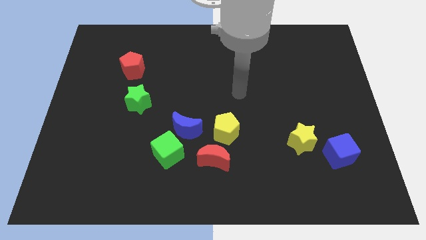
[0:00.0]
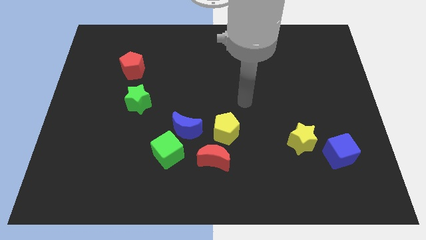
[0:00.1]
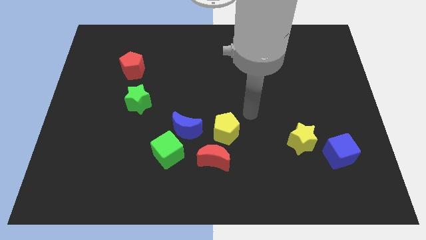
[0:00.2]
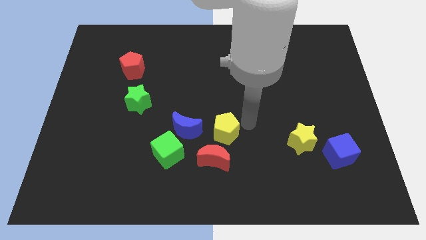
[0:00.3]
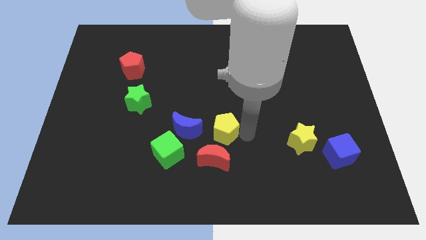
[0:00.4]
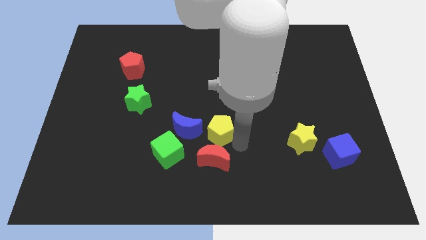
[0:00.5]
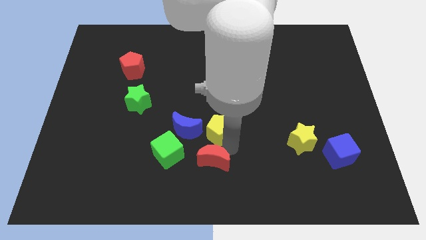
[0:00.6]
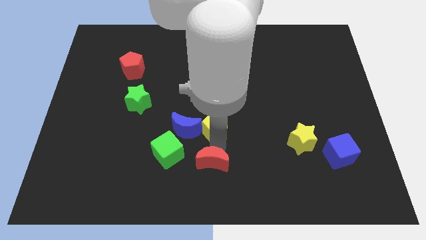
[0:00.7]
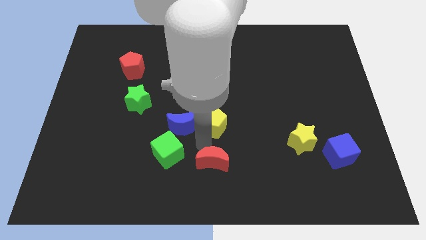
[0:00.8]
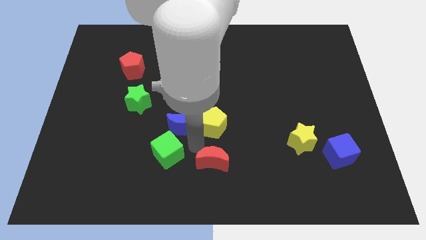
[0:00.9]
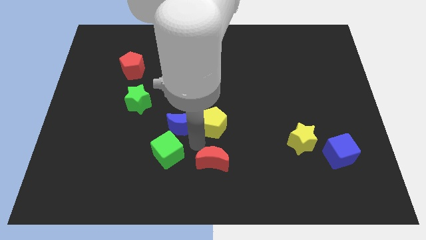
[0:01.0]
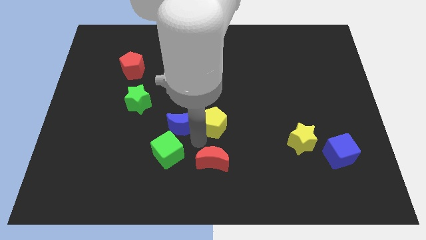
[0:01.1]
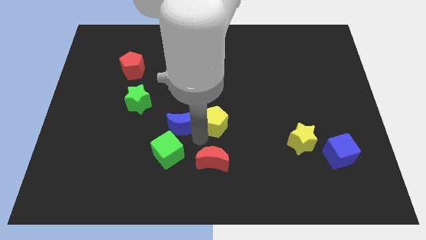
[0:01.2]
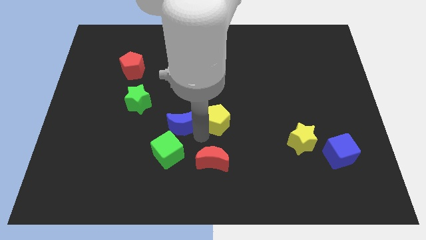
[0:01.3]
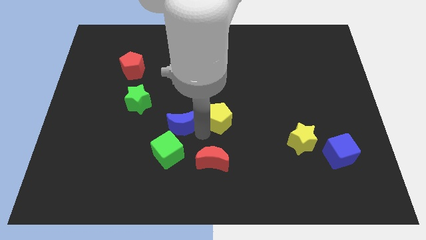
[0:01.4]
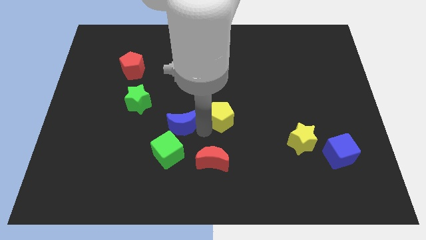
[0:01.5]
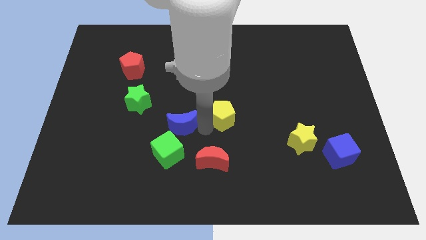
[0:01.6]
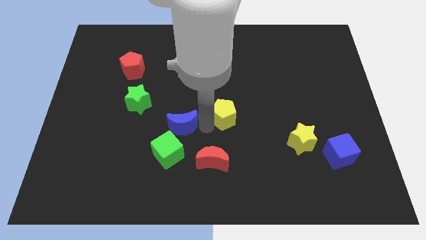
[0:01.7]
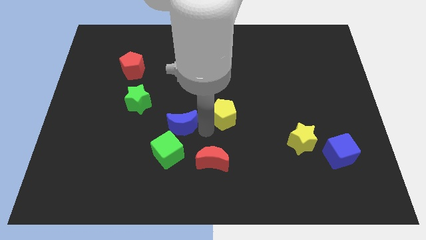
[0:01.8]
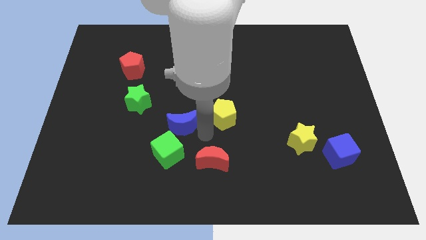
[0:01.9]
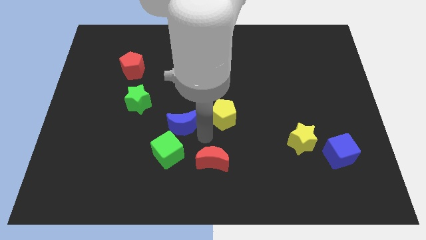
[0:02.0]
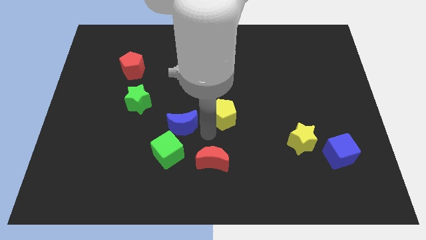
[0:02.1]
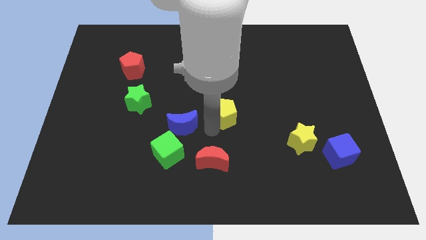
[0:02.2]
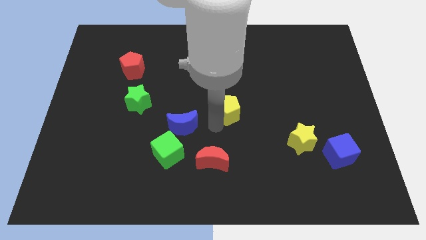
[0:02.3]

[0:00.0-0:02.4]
separate the yellow pentagon from the red moon and blue moon

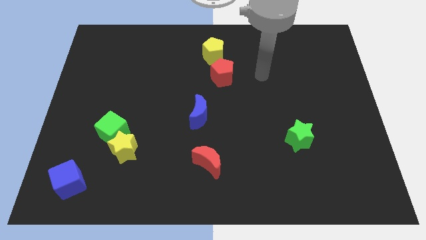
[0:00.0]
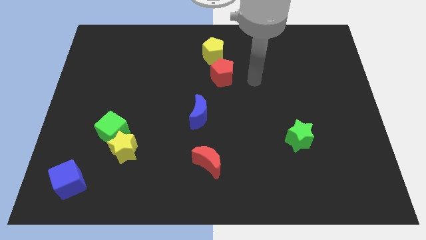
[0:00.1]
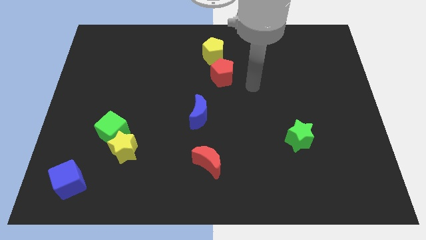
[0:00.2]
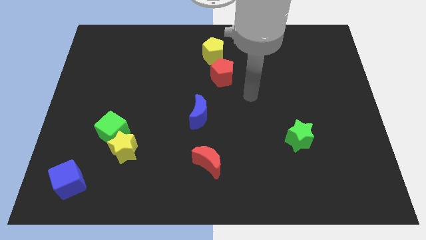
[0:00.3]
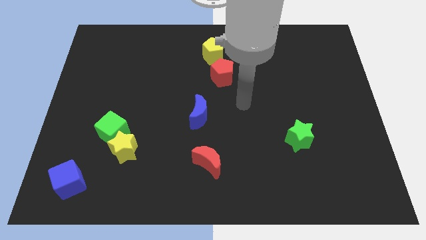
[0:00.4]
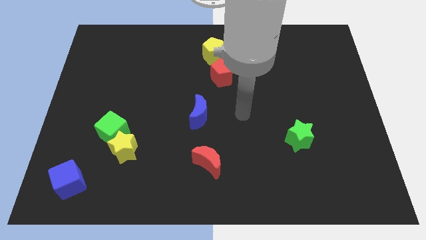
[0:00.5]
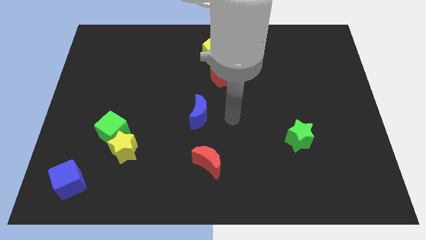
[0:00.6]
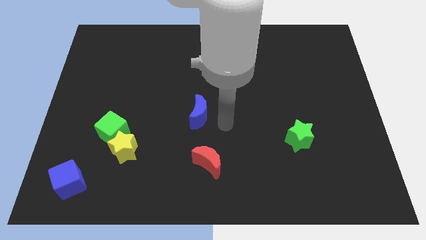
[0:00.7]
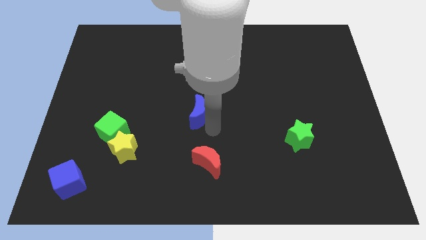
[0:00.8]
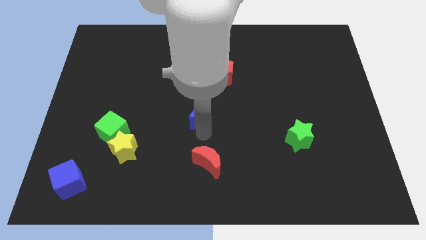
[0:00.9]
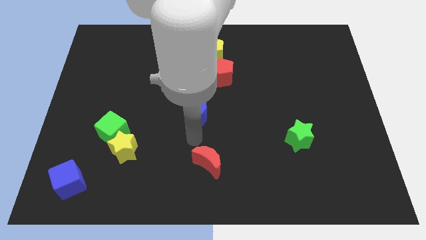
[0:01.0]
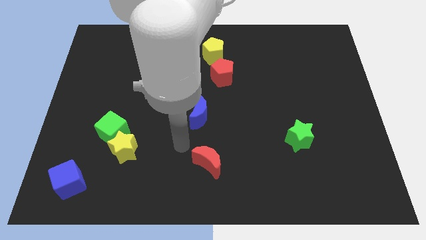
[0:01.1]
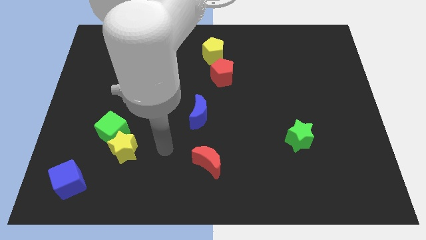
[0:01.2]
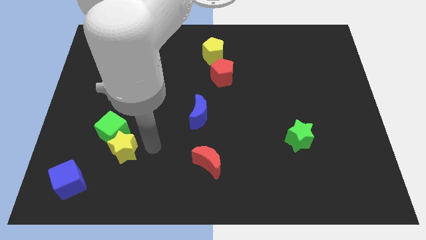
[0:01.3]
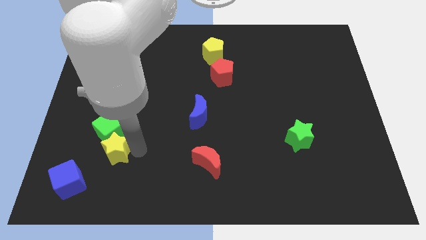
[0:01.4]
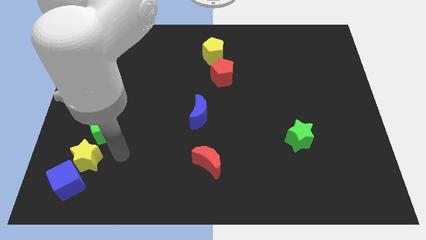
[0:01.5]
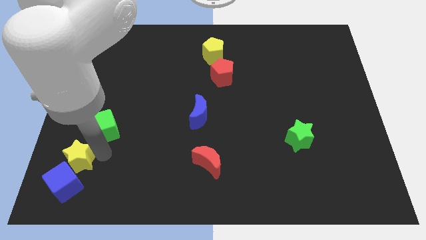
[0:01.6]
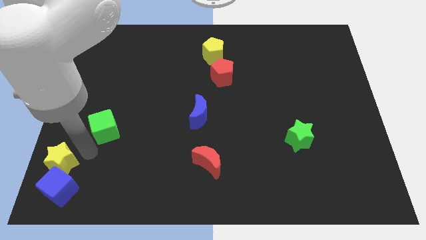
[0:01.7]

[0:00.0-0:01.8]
move the green cube away from the yellow star

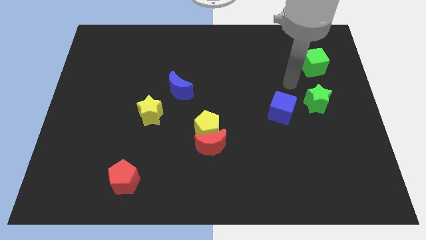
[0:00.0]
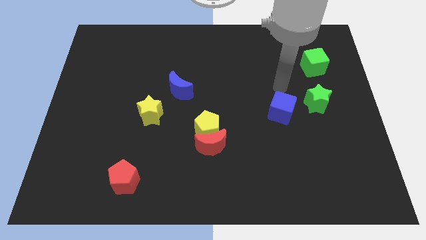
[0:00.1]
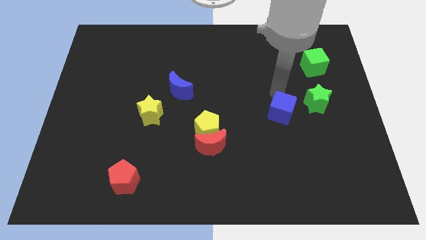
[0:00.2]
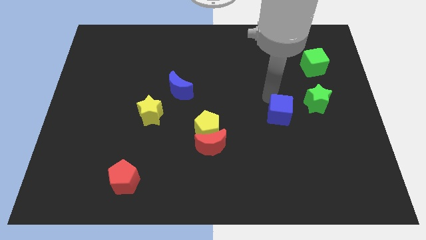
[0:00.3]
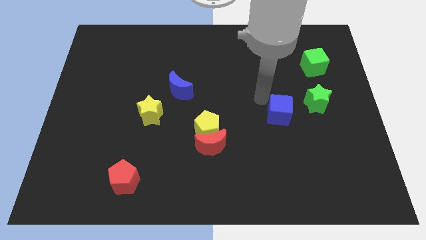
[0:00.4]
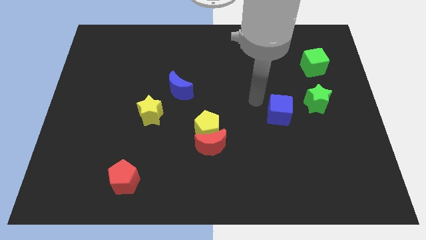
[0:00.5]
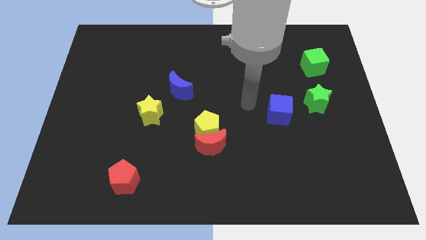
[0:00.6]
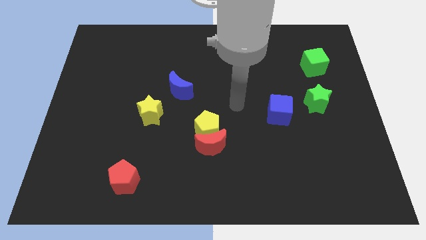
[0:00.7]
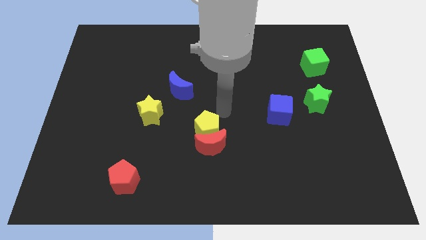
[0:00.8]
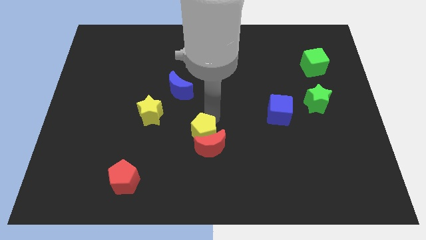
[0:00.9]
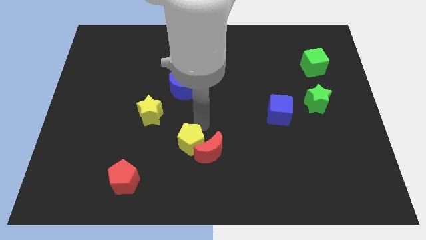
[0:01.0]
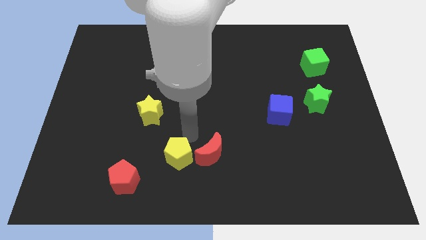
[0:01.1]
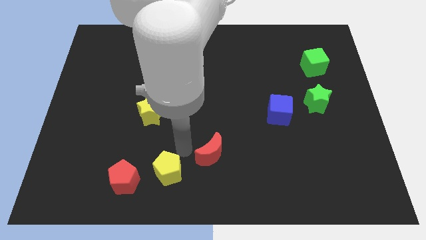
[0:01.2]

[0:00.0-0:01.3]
pull the red moon apart from the yellow pentagon

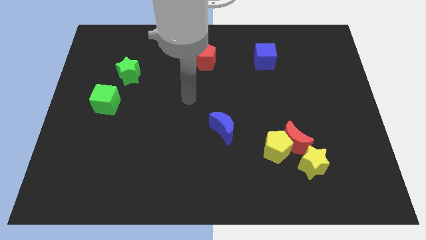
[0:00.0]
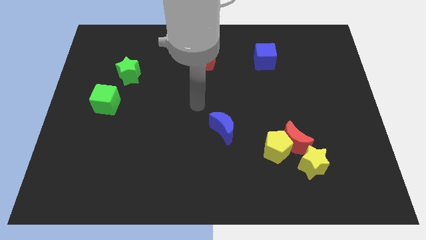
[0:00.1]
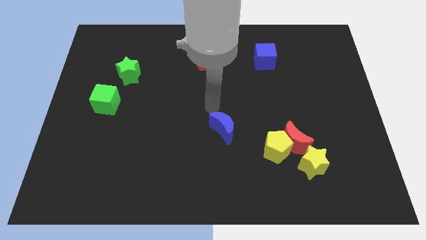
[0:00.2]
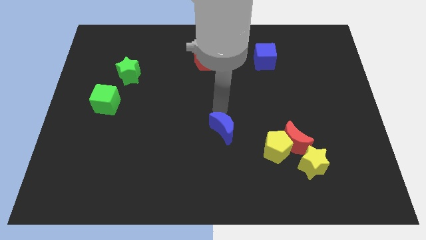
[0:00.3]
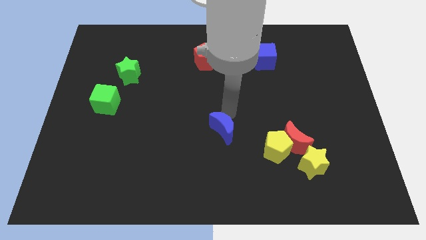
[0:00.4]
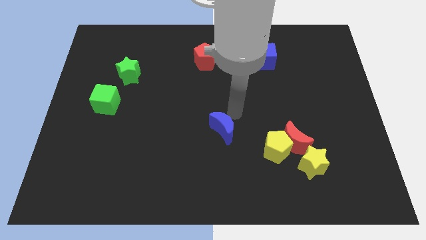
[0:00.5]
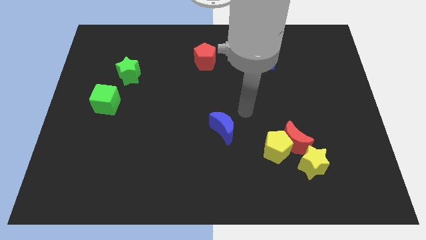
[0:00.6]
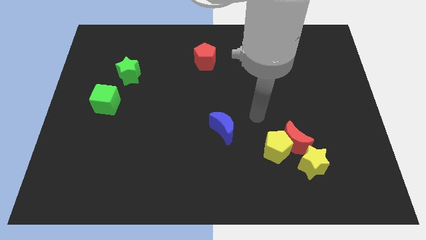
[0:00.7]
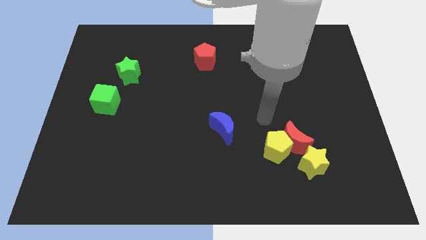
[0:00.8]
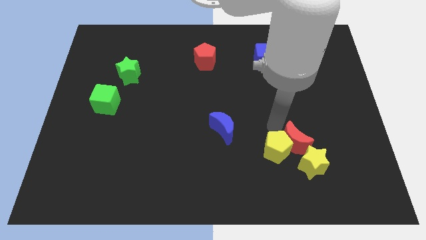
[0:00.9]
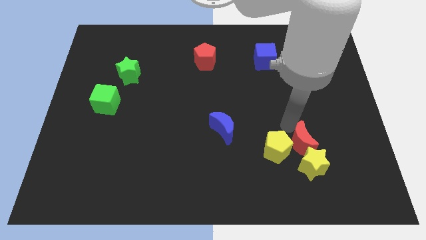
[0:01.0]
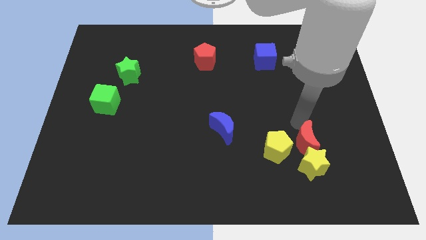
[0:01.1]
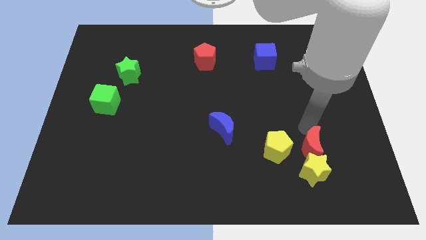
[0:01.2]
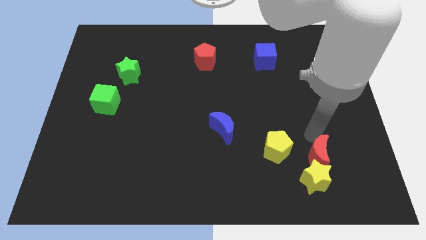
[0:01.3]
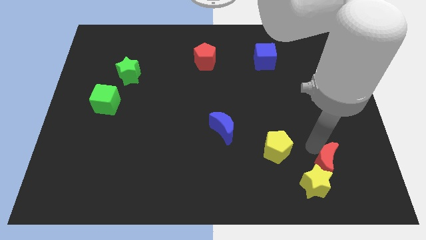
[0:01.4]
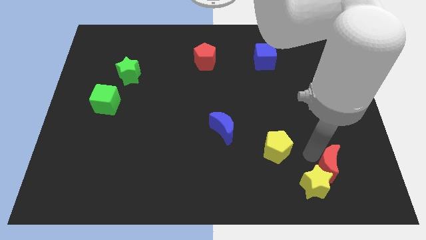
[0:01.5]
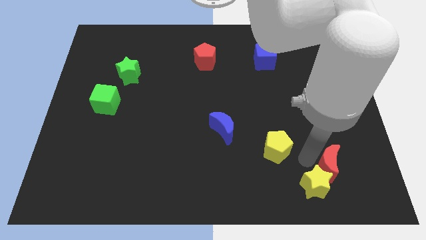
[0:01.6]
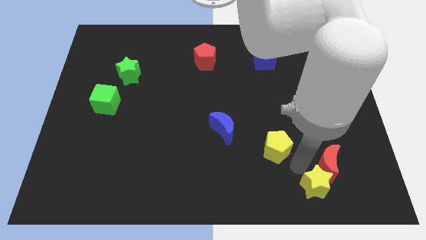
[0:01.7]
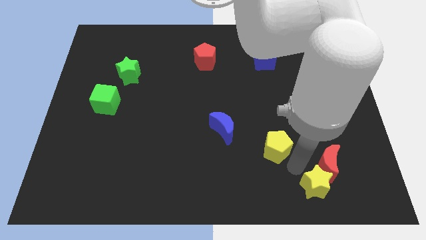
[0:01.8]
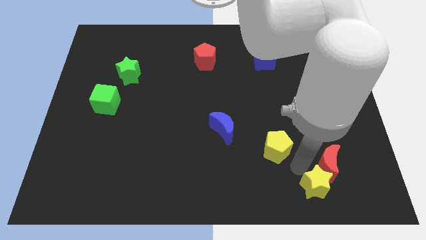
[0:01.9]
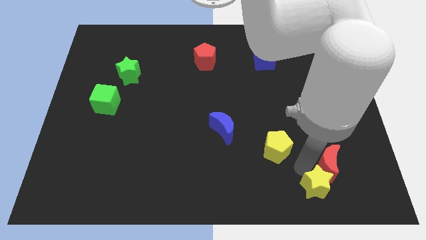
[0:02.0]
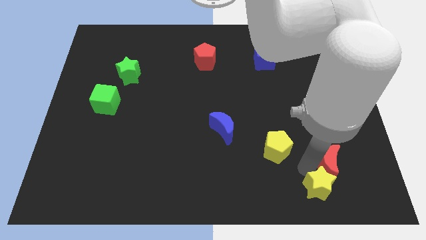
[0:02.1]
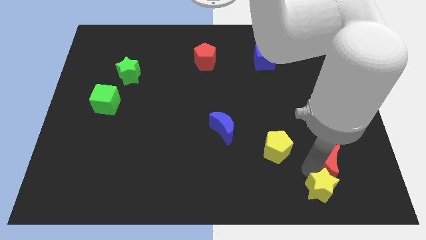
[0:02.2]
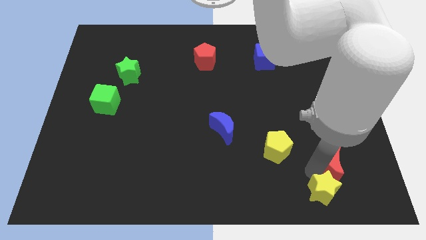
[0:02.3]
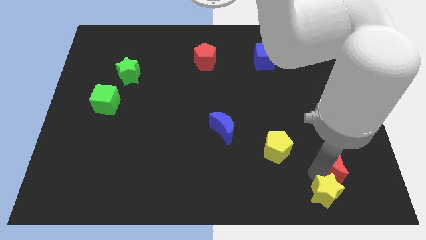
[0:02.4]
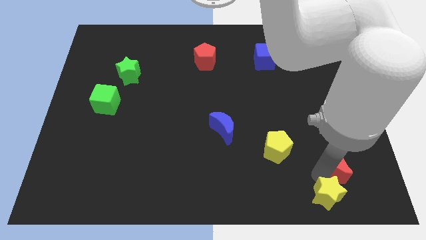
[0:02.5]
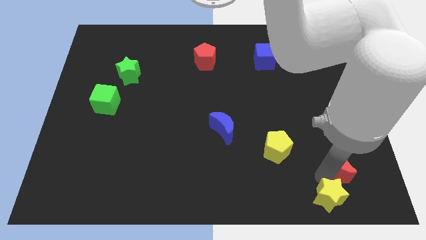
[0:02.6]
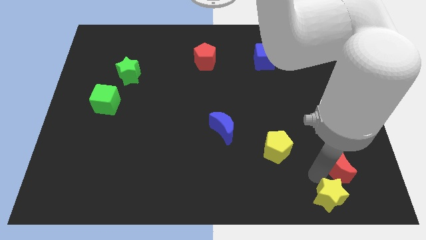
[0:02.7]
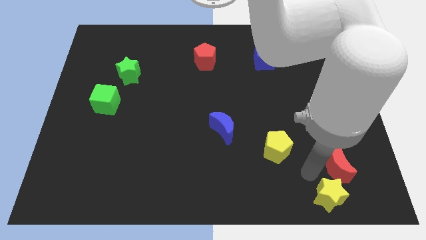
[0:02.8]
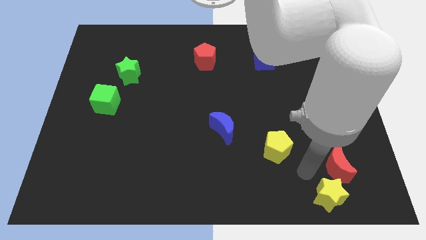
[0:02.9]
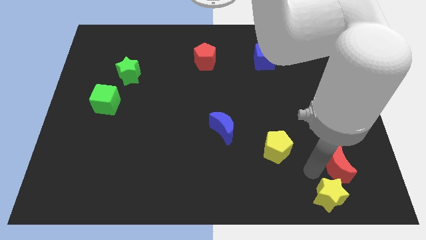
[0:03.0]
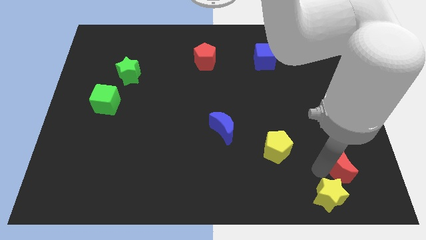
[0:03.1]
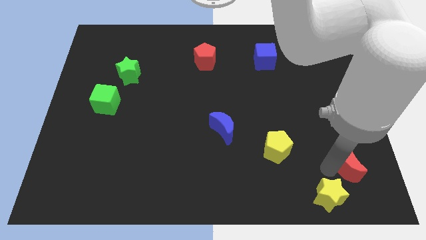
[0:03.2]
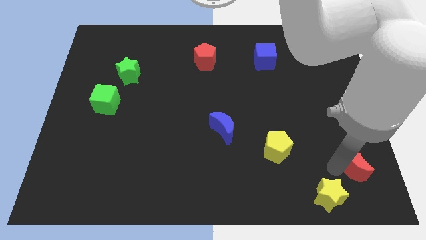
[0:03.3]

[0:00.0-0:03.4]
pull the red moon apart from the yellow pentagon and yellow star

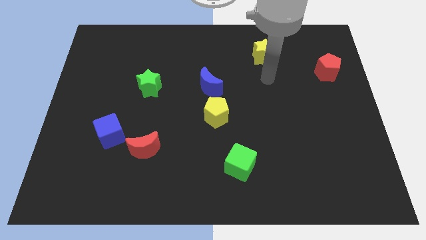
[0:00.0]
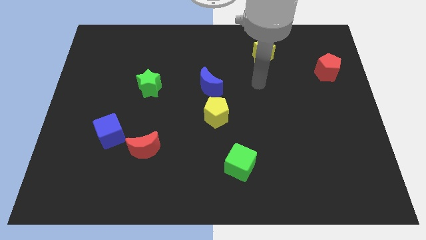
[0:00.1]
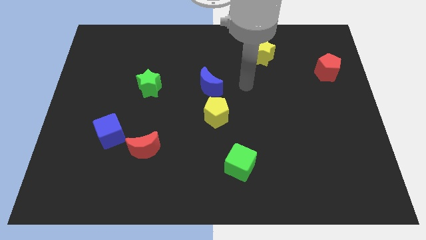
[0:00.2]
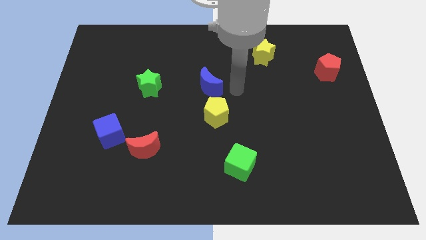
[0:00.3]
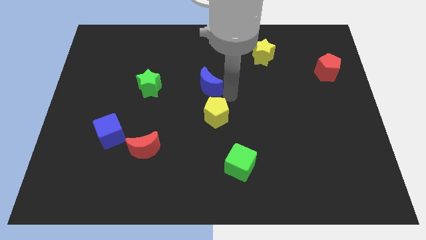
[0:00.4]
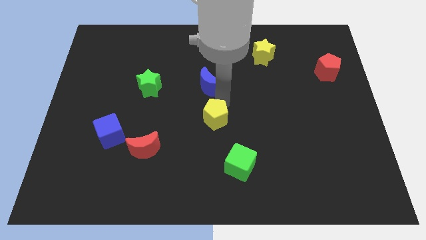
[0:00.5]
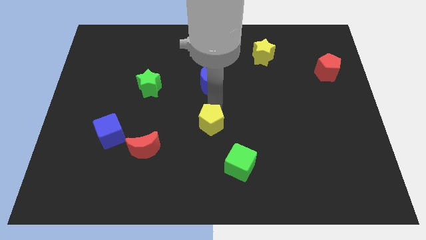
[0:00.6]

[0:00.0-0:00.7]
pull the blue moon apart from the yellow pentagon
